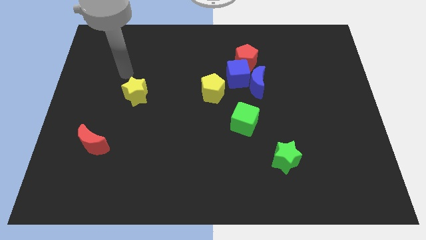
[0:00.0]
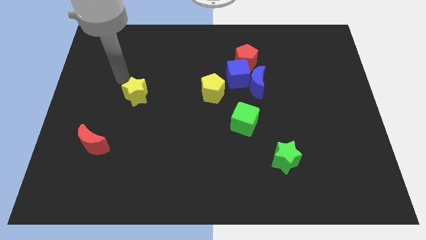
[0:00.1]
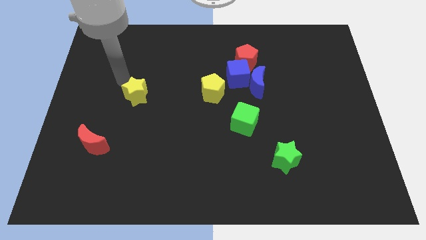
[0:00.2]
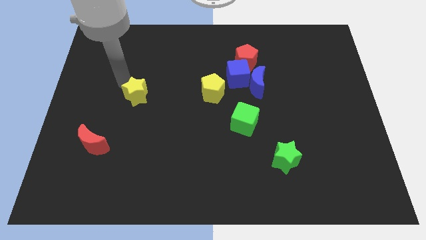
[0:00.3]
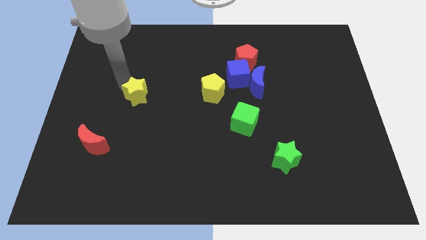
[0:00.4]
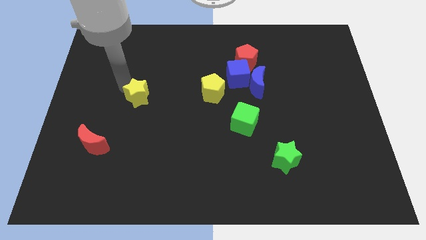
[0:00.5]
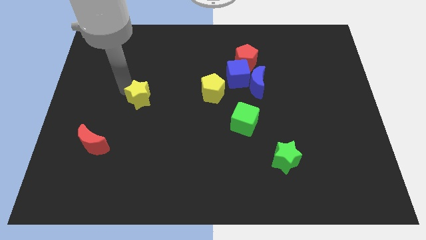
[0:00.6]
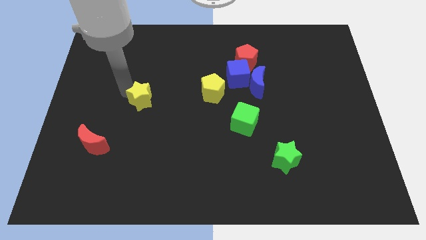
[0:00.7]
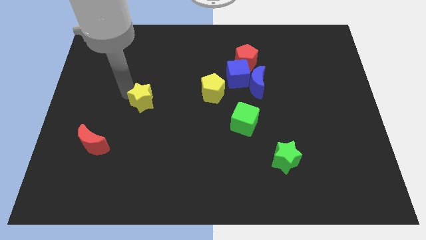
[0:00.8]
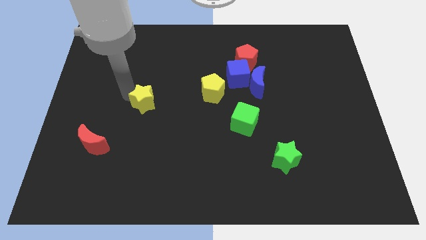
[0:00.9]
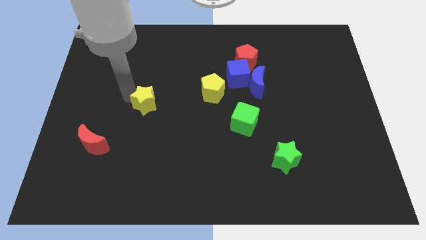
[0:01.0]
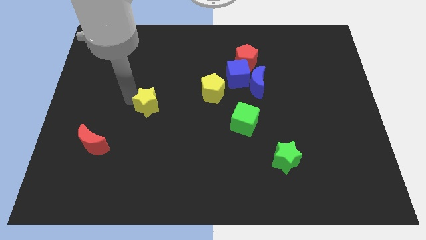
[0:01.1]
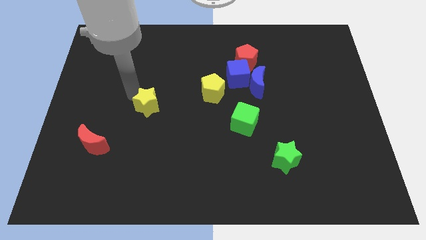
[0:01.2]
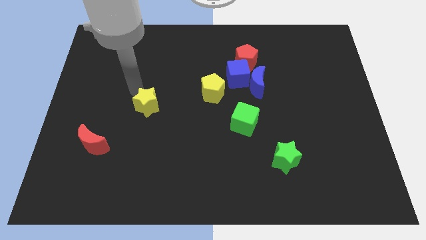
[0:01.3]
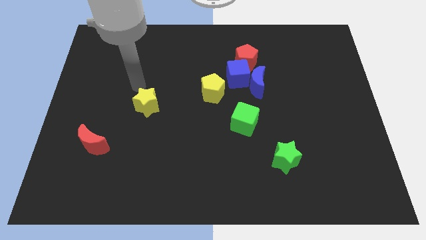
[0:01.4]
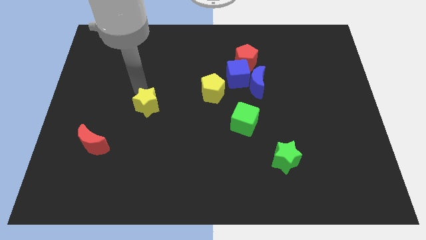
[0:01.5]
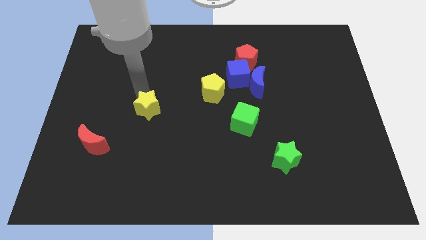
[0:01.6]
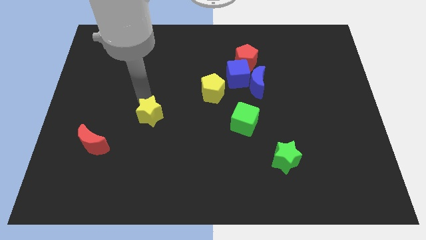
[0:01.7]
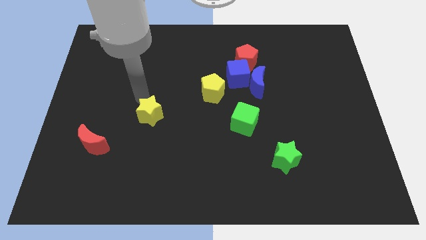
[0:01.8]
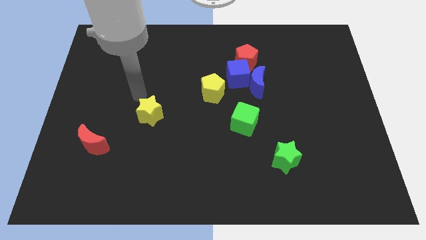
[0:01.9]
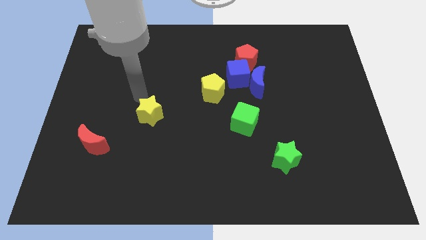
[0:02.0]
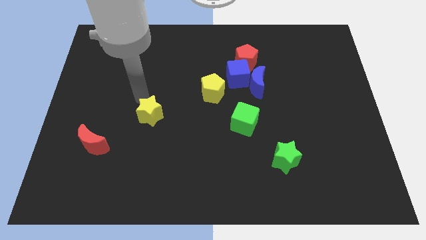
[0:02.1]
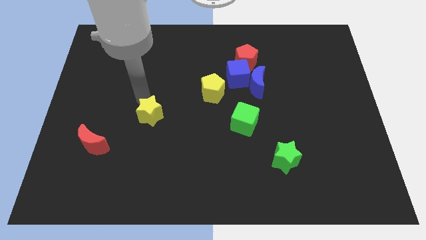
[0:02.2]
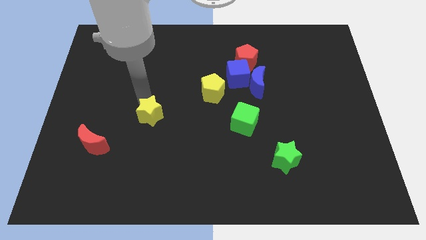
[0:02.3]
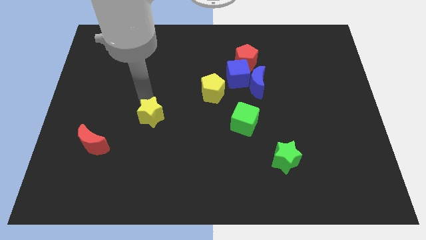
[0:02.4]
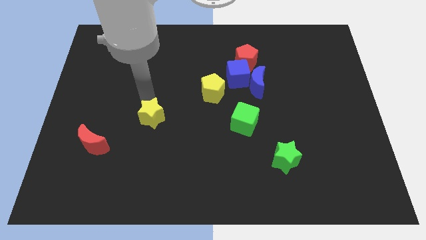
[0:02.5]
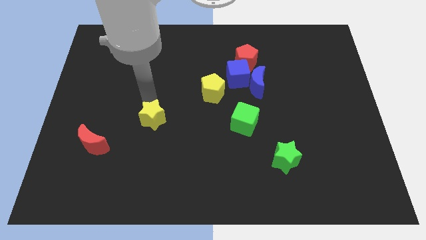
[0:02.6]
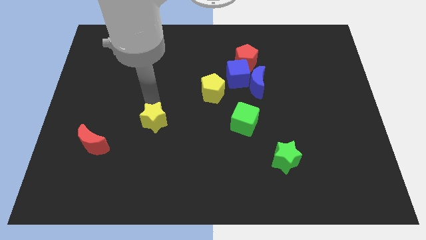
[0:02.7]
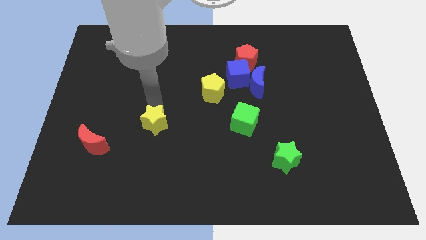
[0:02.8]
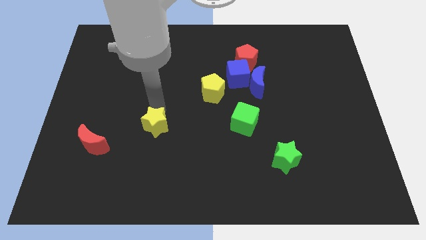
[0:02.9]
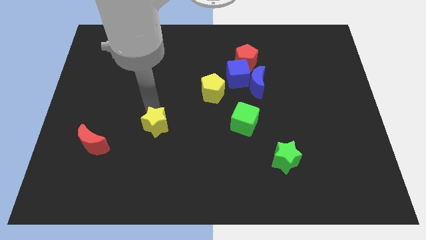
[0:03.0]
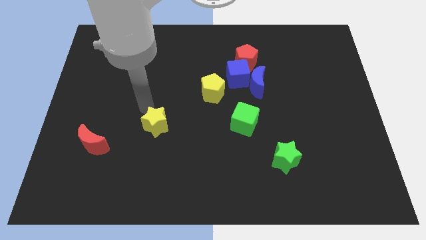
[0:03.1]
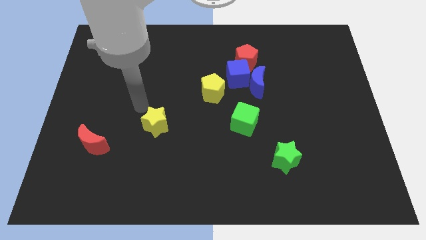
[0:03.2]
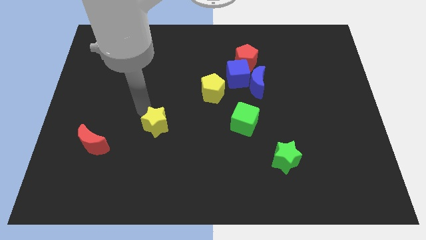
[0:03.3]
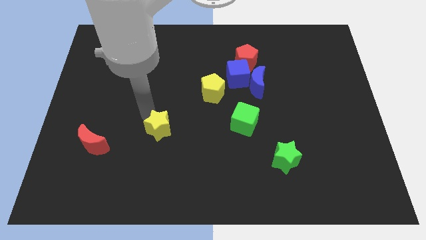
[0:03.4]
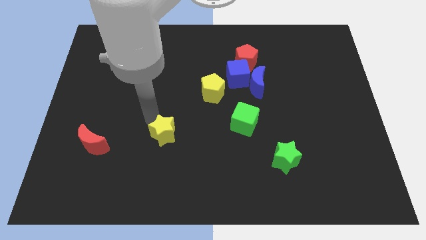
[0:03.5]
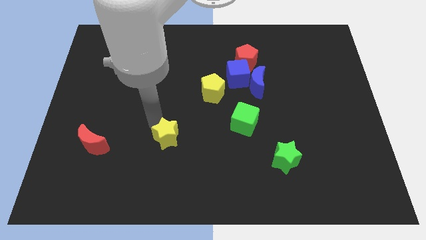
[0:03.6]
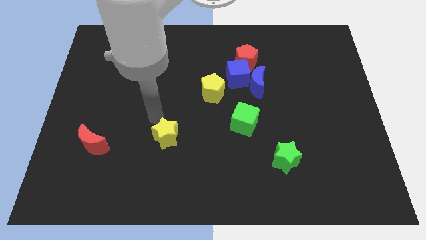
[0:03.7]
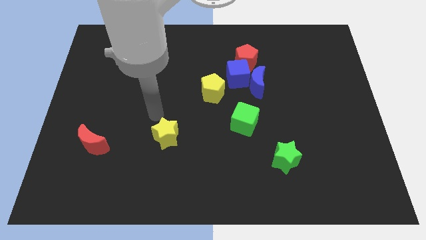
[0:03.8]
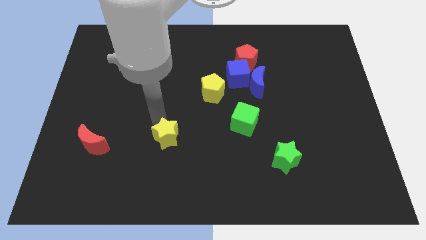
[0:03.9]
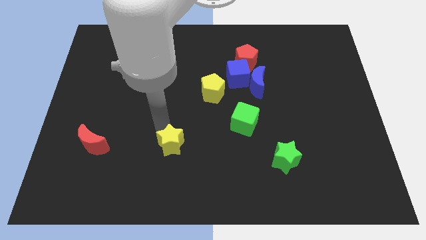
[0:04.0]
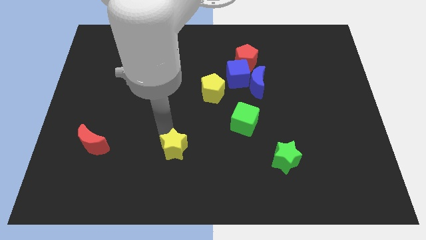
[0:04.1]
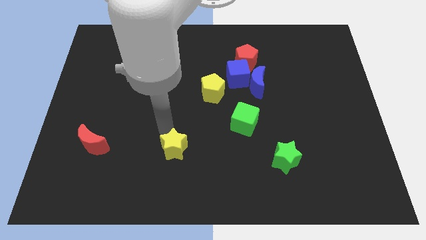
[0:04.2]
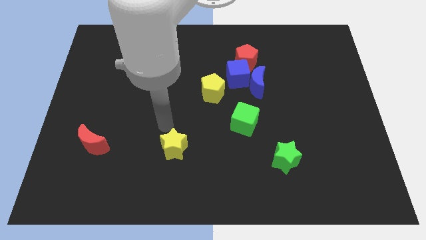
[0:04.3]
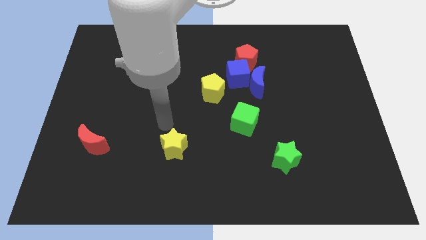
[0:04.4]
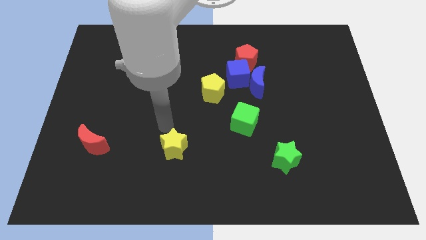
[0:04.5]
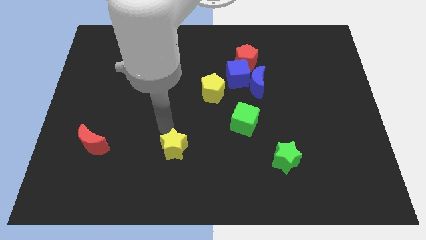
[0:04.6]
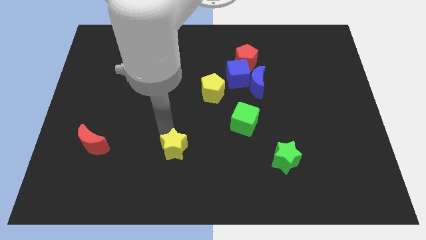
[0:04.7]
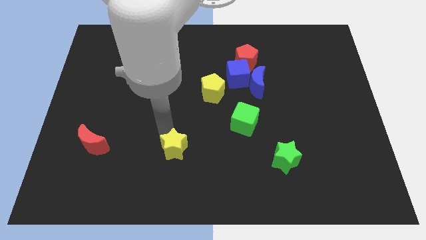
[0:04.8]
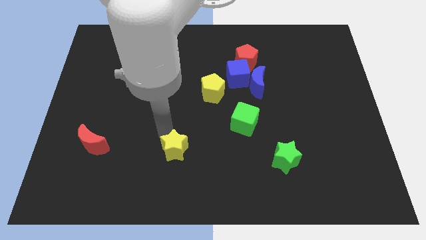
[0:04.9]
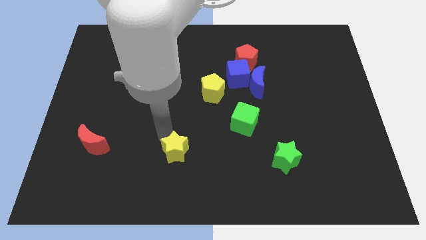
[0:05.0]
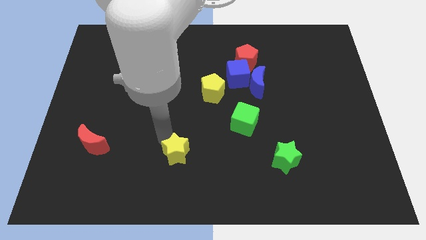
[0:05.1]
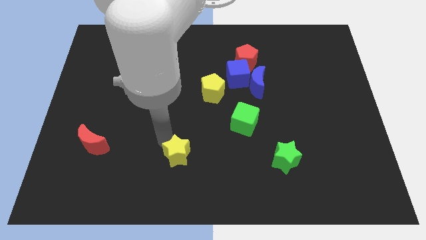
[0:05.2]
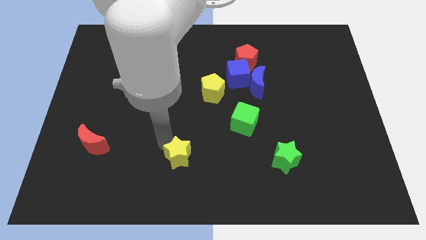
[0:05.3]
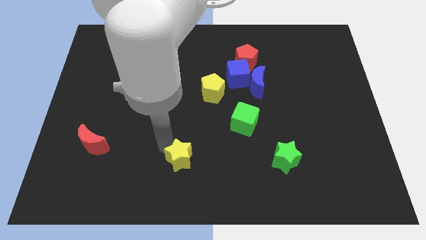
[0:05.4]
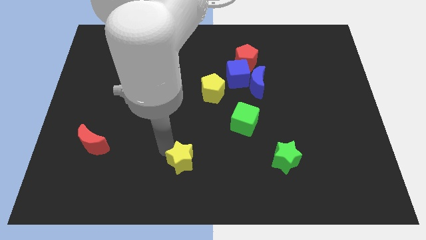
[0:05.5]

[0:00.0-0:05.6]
push the yellow star to the bottom
